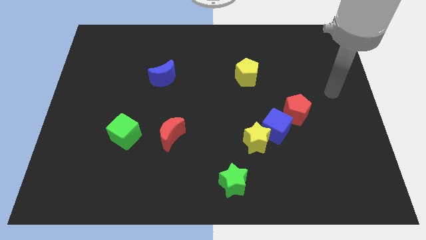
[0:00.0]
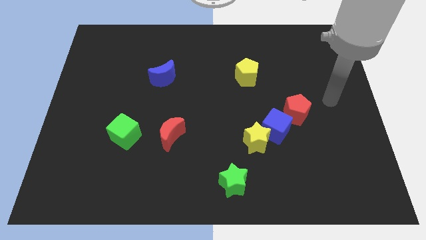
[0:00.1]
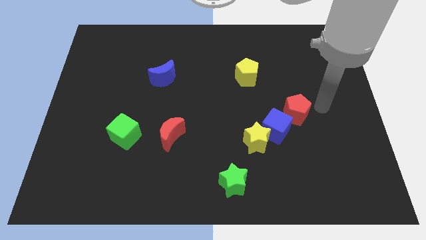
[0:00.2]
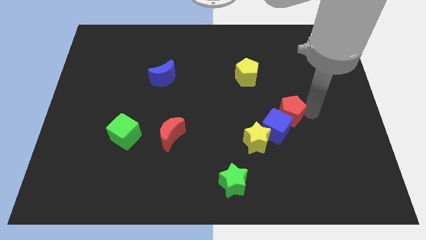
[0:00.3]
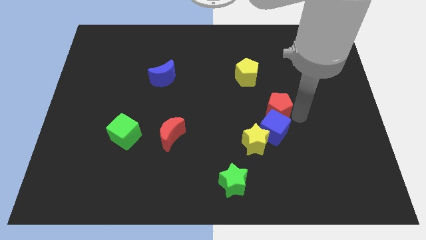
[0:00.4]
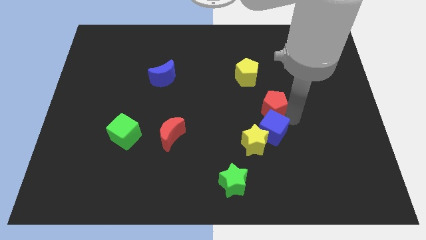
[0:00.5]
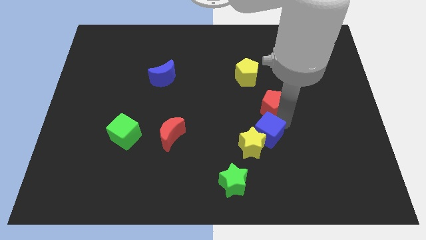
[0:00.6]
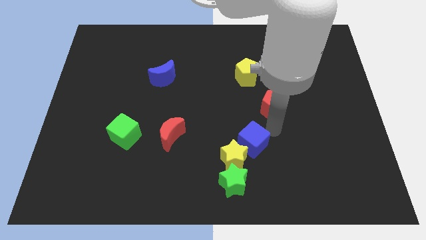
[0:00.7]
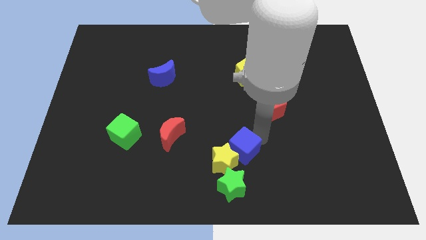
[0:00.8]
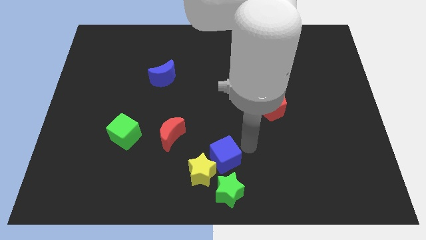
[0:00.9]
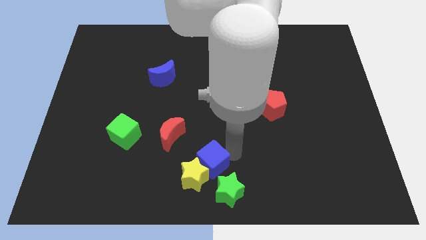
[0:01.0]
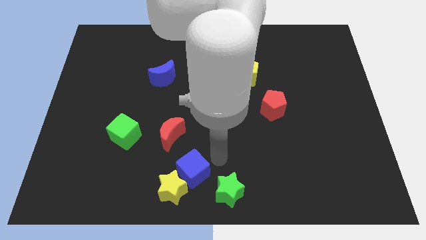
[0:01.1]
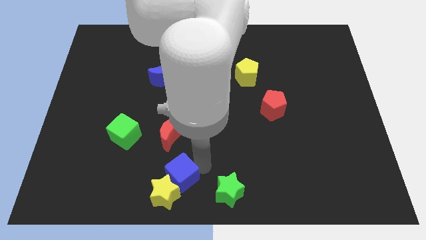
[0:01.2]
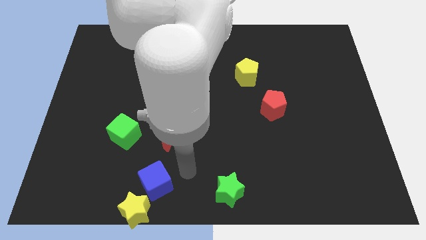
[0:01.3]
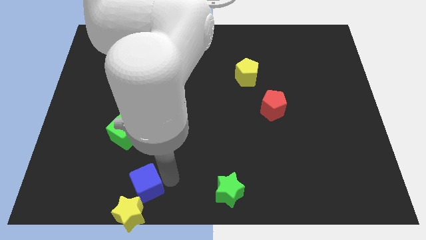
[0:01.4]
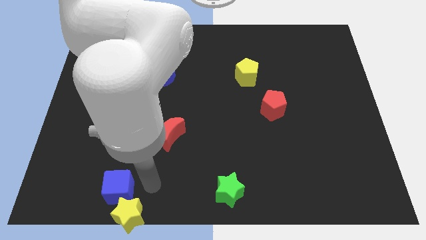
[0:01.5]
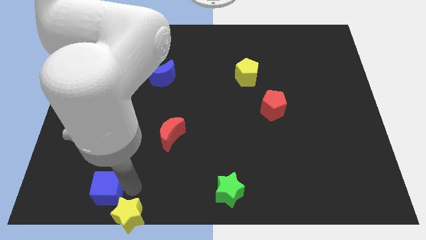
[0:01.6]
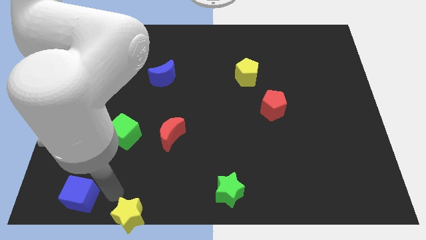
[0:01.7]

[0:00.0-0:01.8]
move the yellow star away from the blue cube

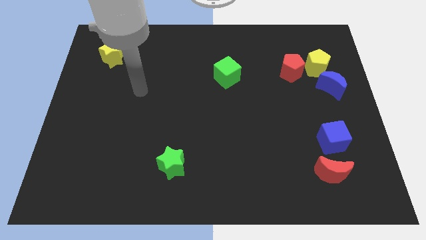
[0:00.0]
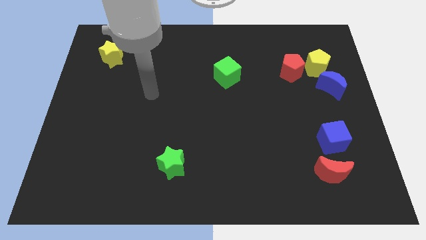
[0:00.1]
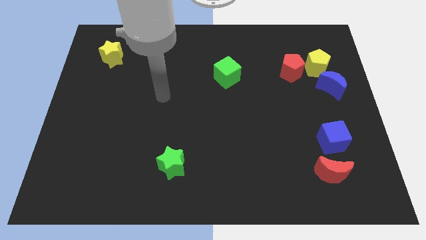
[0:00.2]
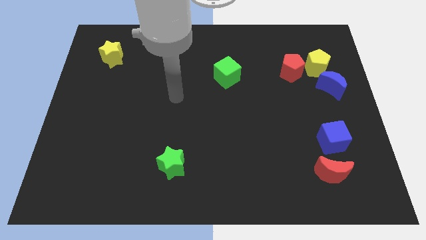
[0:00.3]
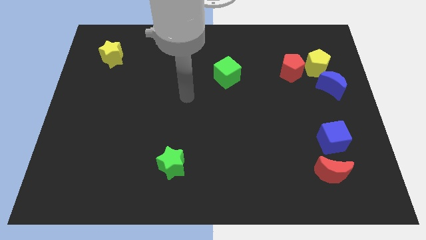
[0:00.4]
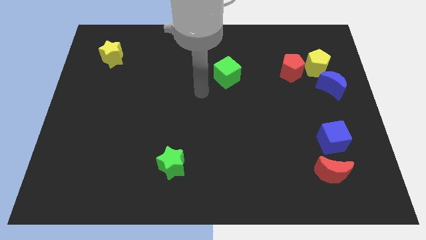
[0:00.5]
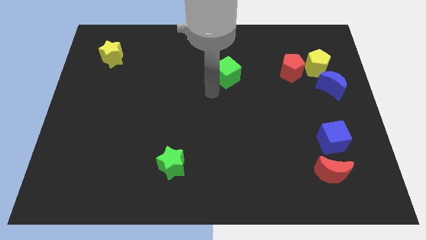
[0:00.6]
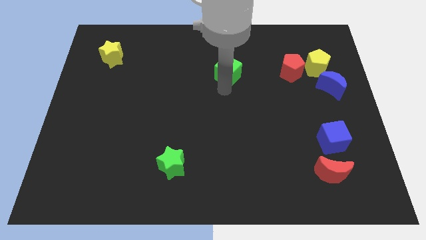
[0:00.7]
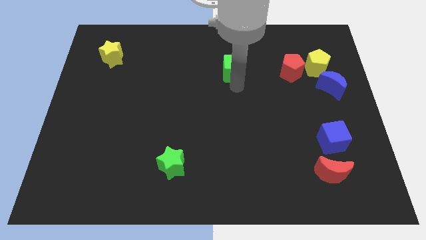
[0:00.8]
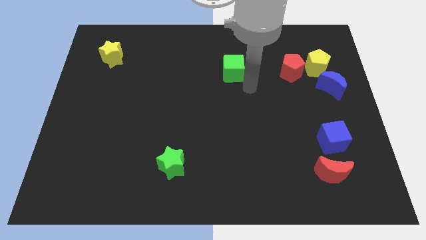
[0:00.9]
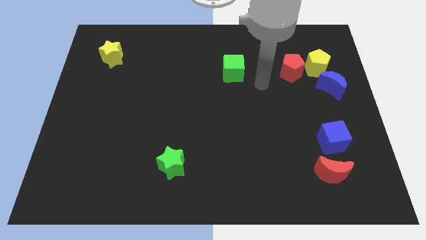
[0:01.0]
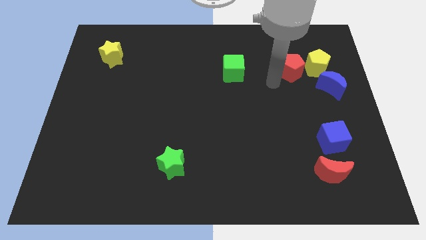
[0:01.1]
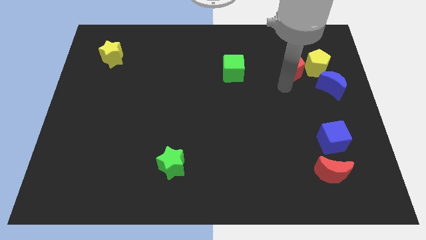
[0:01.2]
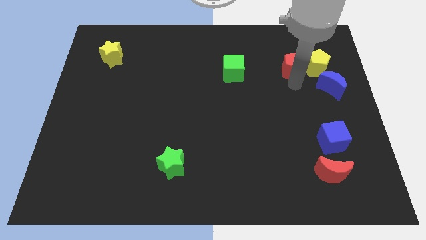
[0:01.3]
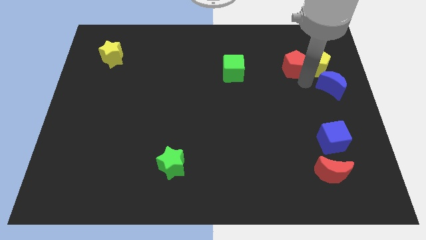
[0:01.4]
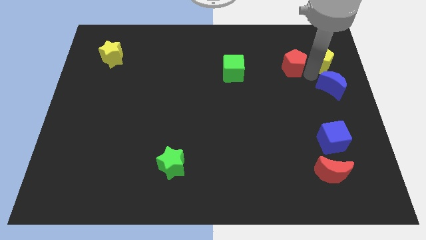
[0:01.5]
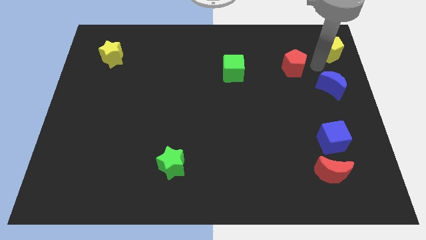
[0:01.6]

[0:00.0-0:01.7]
pull the red pentagon apart from the yellow pentagon

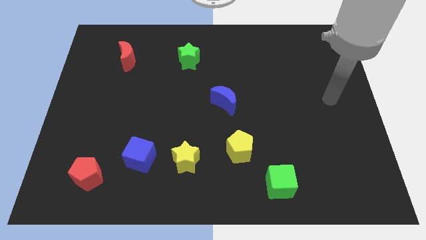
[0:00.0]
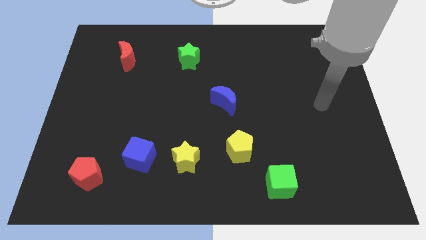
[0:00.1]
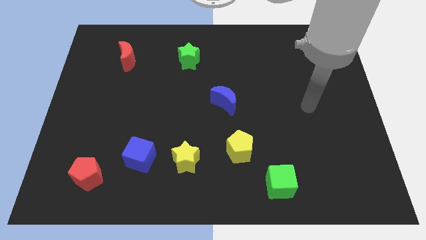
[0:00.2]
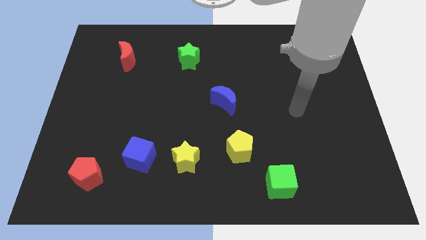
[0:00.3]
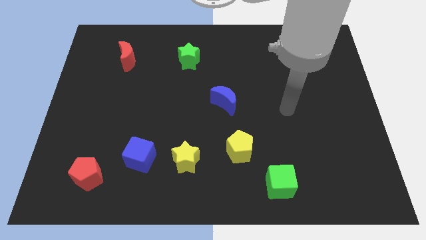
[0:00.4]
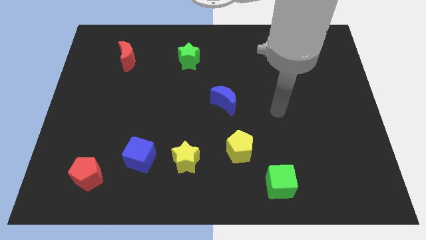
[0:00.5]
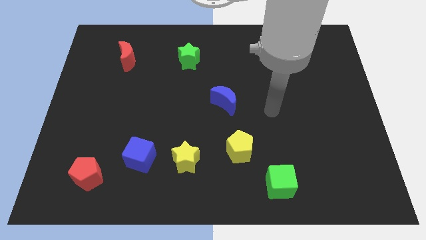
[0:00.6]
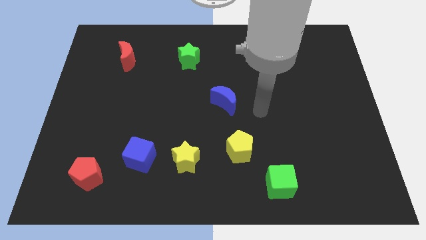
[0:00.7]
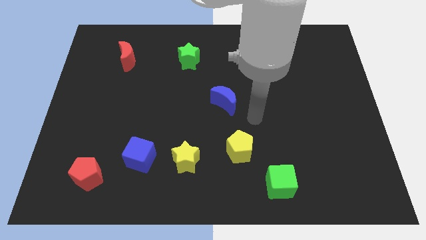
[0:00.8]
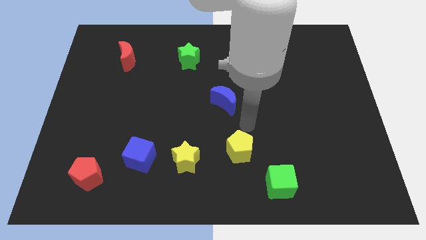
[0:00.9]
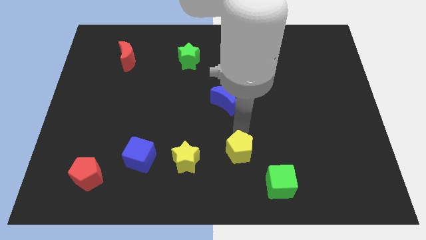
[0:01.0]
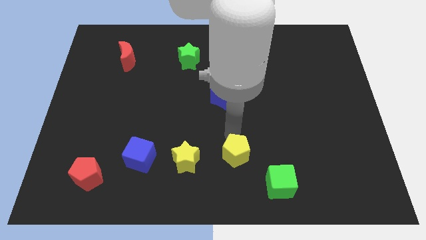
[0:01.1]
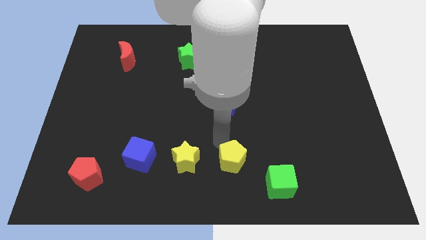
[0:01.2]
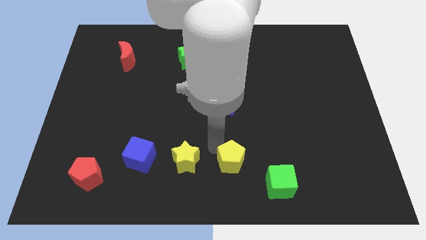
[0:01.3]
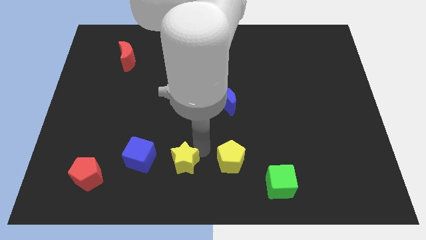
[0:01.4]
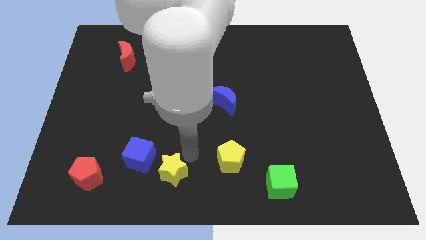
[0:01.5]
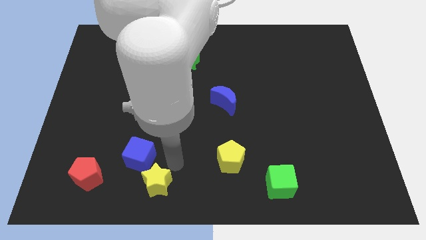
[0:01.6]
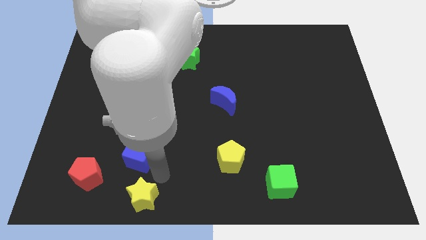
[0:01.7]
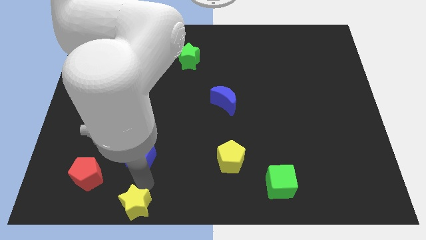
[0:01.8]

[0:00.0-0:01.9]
move the blue cube away from the yellow star

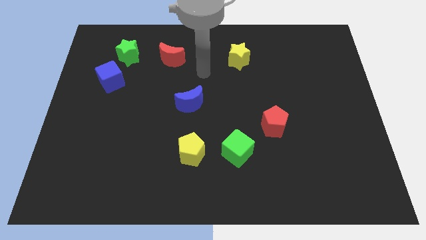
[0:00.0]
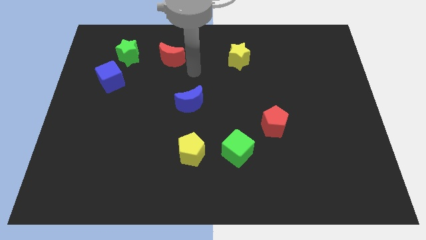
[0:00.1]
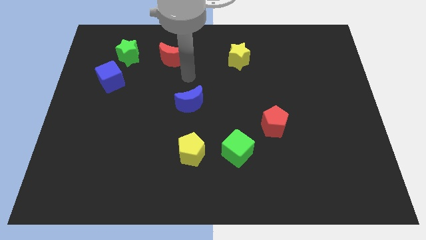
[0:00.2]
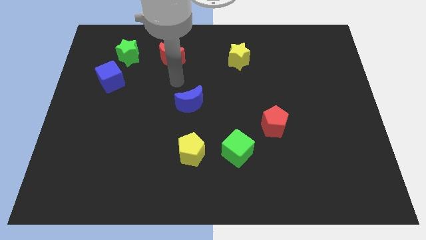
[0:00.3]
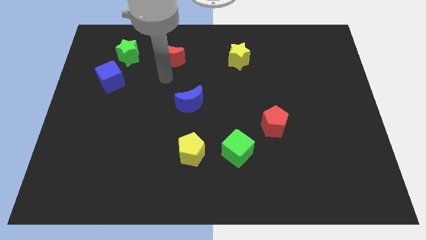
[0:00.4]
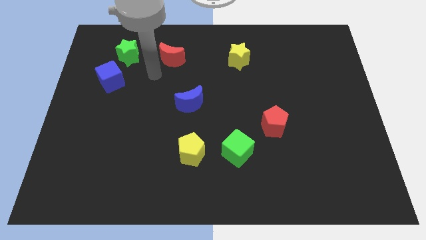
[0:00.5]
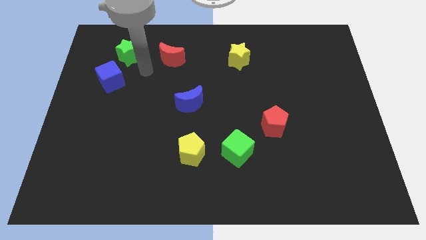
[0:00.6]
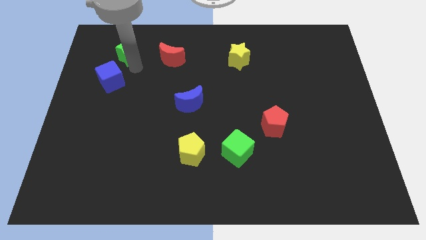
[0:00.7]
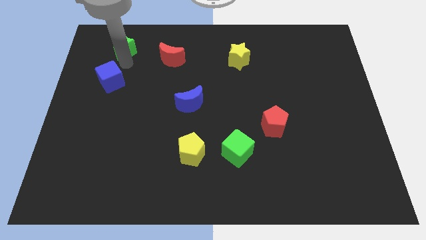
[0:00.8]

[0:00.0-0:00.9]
pull the blue cube apart from the green star

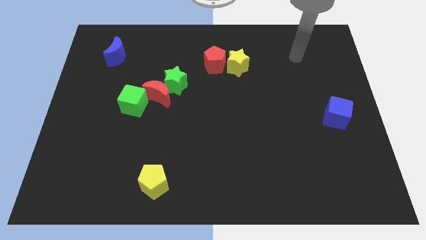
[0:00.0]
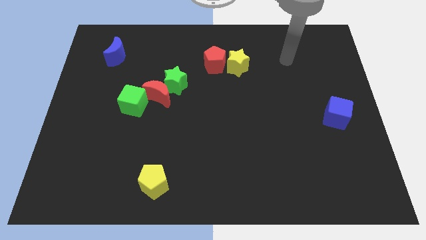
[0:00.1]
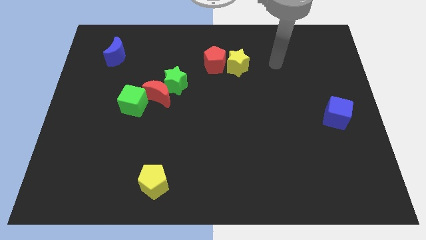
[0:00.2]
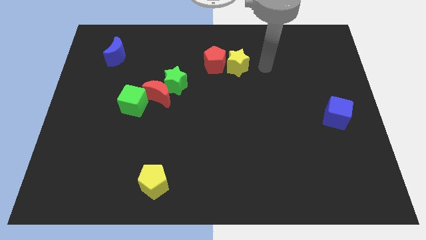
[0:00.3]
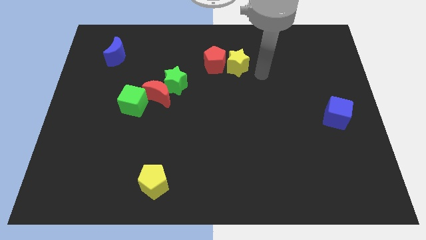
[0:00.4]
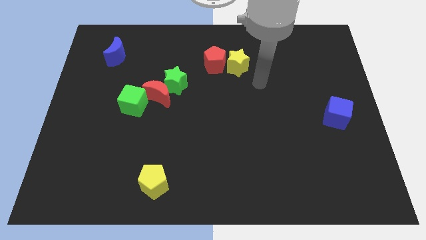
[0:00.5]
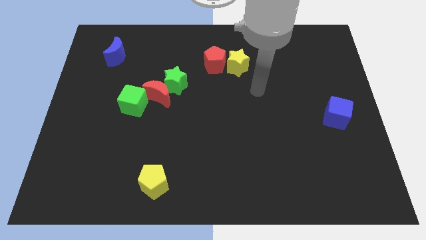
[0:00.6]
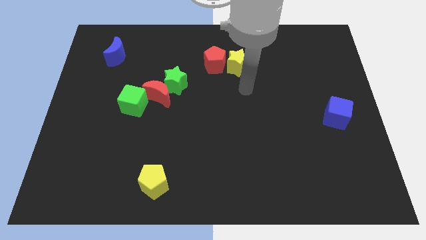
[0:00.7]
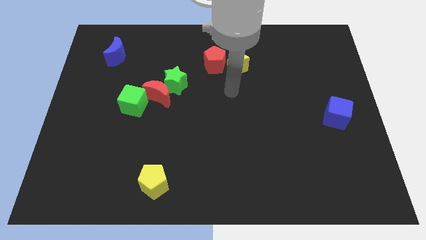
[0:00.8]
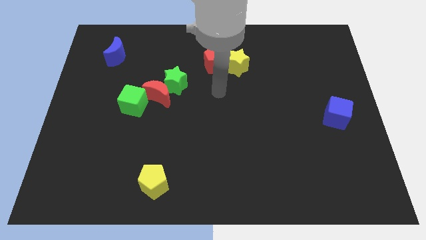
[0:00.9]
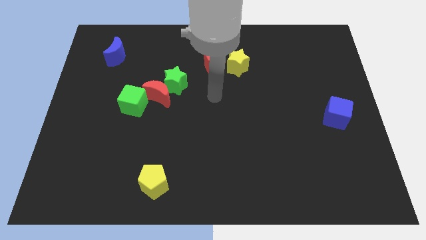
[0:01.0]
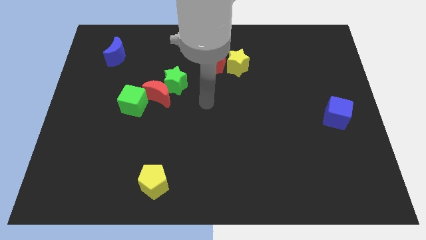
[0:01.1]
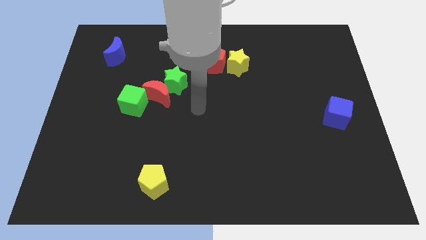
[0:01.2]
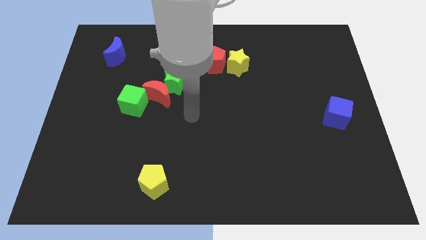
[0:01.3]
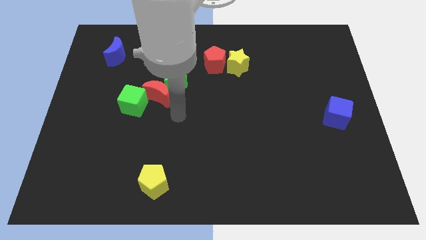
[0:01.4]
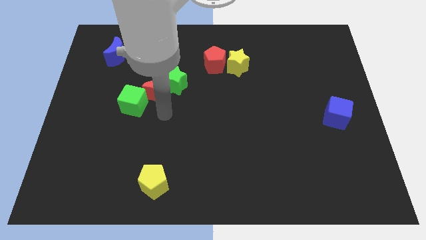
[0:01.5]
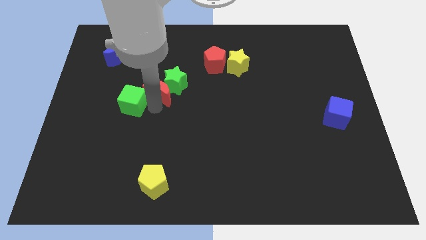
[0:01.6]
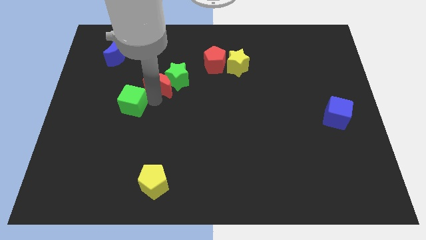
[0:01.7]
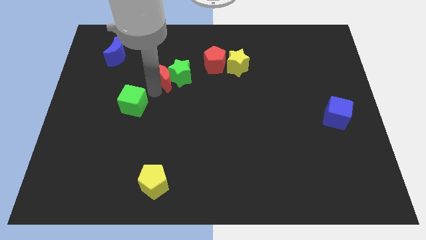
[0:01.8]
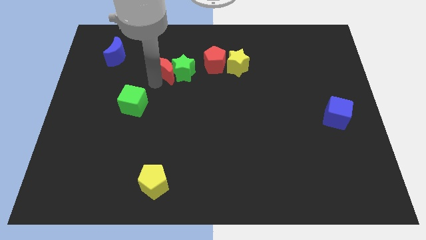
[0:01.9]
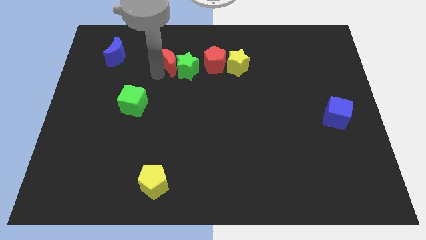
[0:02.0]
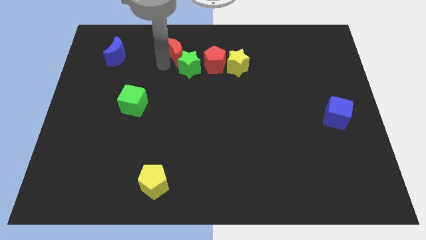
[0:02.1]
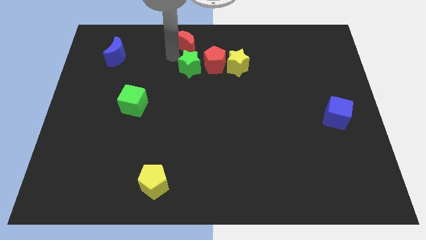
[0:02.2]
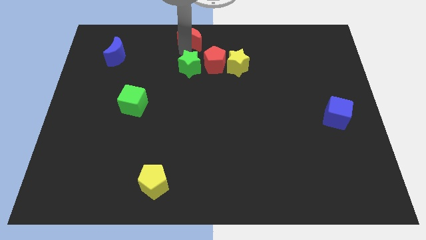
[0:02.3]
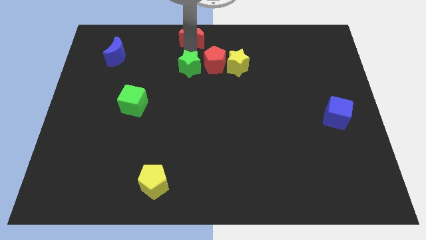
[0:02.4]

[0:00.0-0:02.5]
move the green star away from the red moon

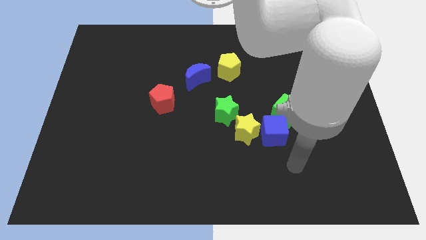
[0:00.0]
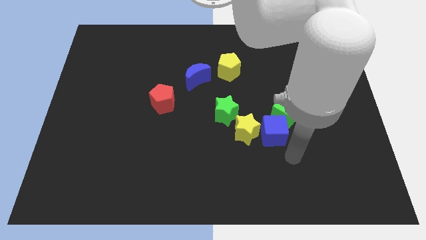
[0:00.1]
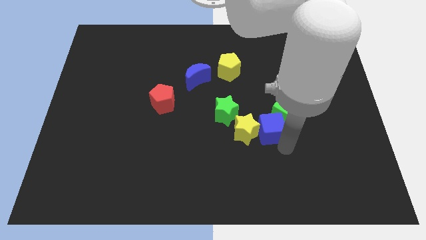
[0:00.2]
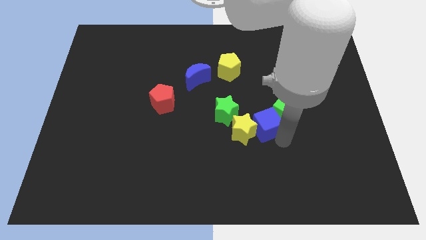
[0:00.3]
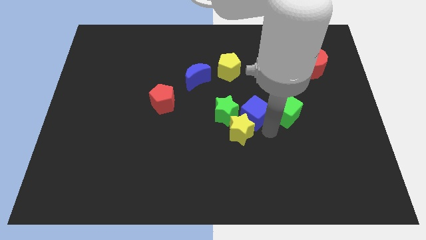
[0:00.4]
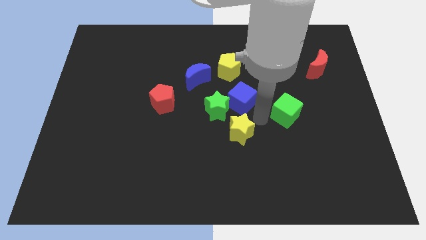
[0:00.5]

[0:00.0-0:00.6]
separate the green cube from the blue cube
